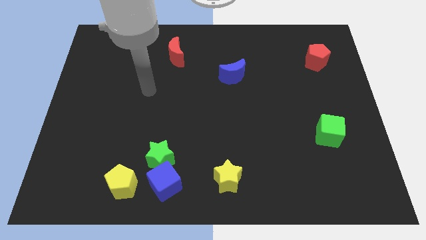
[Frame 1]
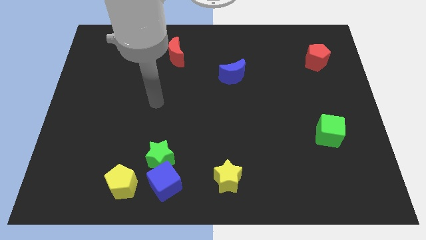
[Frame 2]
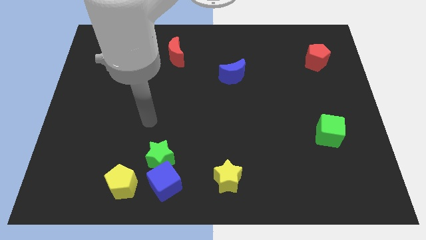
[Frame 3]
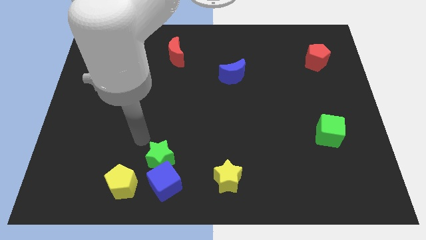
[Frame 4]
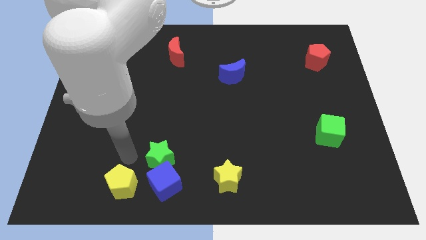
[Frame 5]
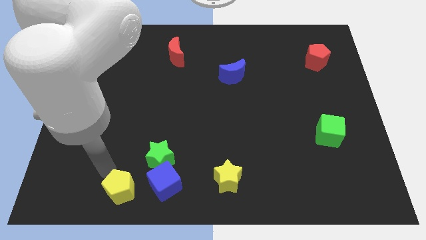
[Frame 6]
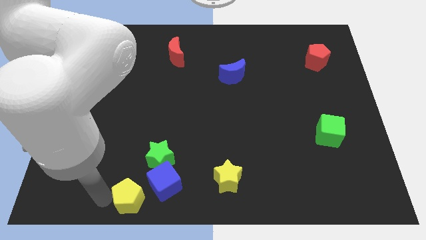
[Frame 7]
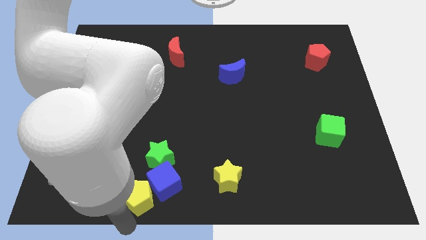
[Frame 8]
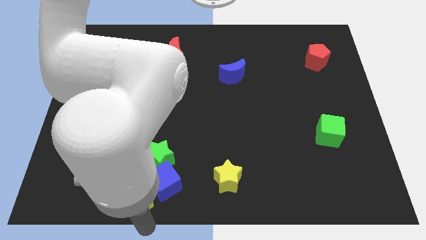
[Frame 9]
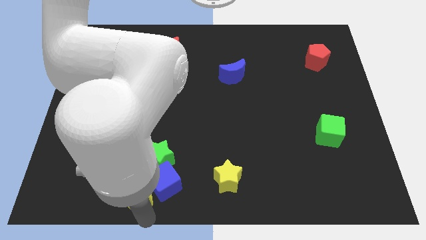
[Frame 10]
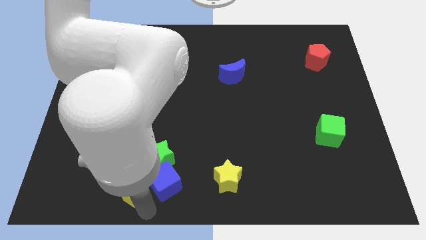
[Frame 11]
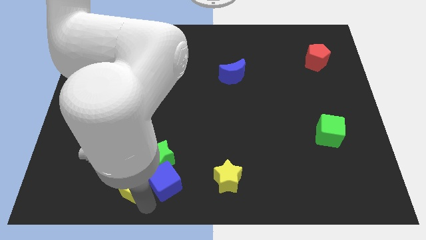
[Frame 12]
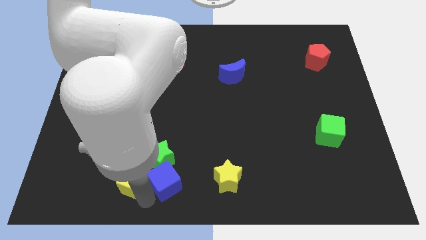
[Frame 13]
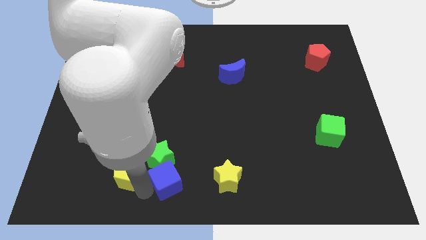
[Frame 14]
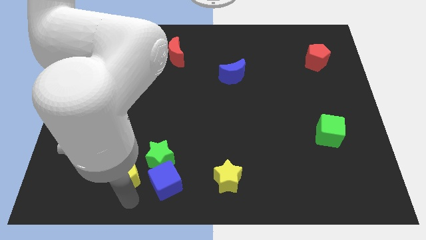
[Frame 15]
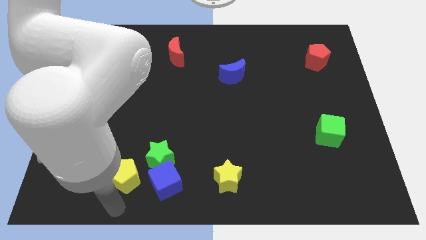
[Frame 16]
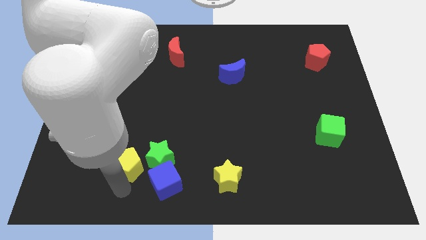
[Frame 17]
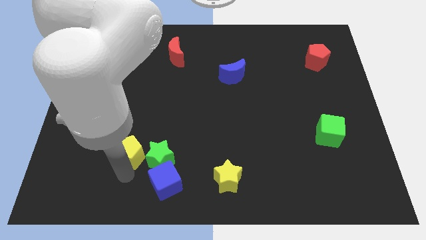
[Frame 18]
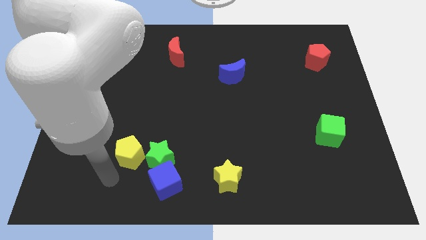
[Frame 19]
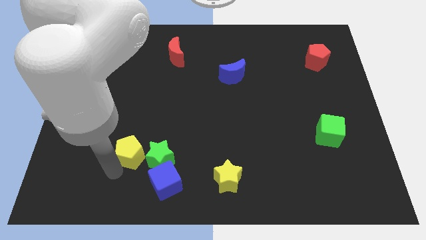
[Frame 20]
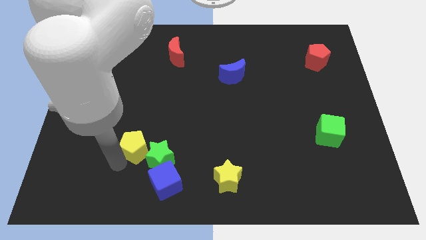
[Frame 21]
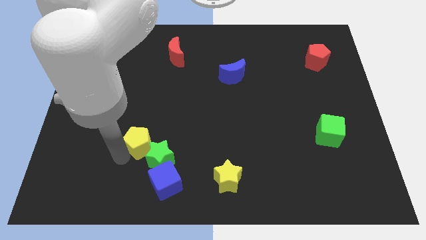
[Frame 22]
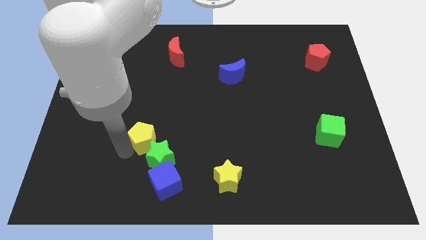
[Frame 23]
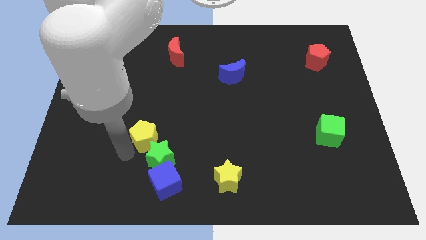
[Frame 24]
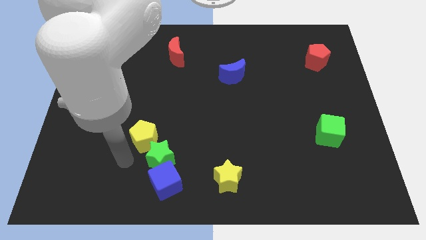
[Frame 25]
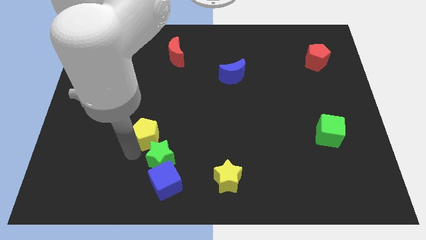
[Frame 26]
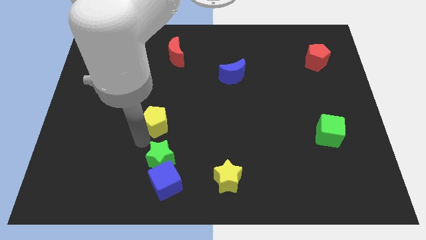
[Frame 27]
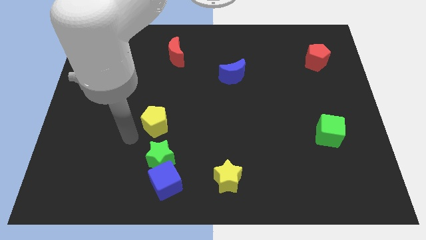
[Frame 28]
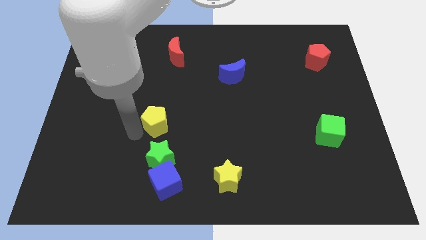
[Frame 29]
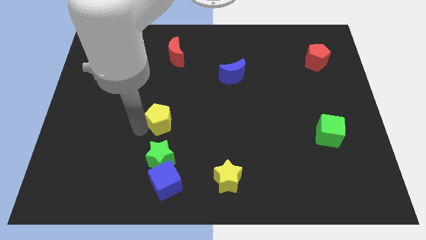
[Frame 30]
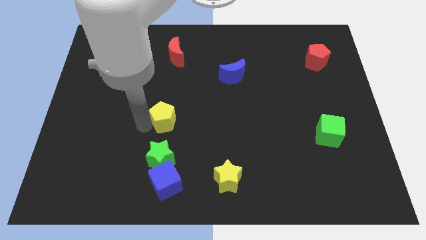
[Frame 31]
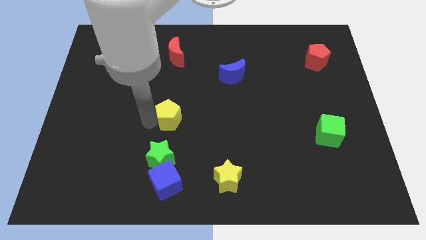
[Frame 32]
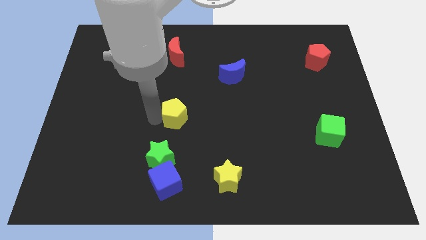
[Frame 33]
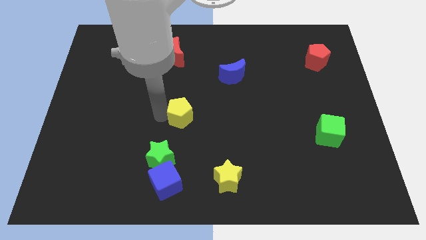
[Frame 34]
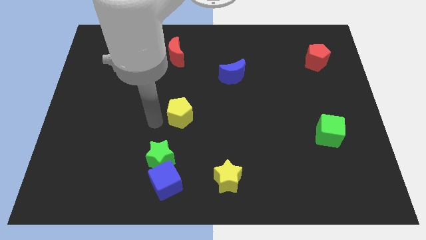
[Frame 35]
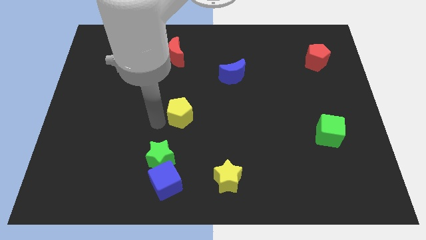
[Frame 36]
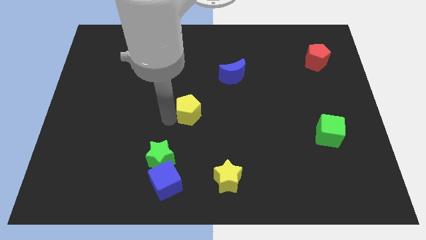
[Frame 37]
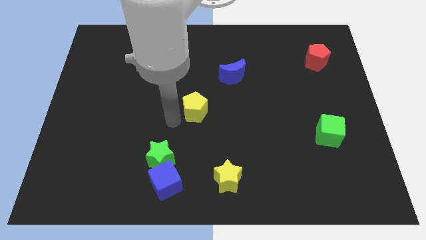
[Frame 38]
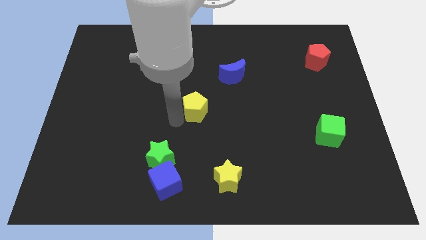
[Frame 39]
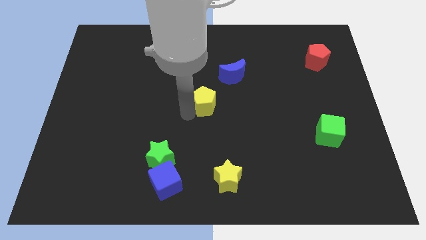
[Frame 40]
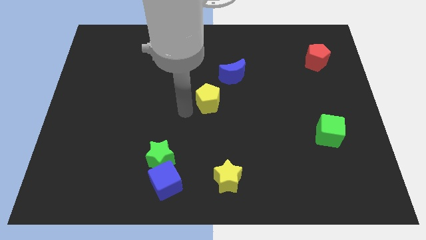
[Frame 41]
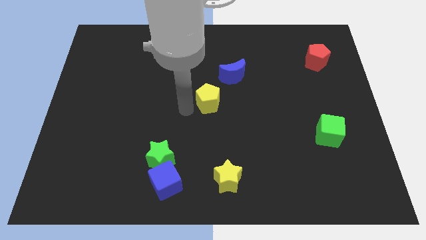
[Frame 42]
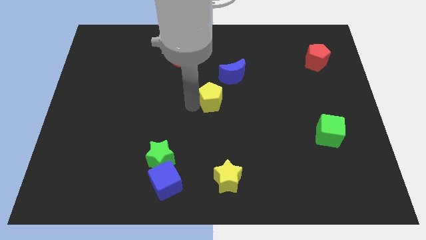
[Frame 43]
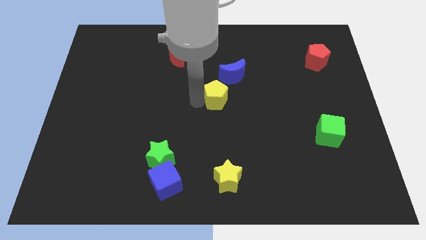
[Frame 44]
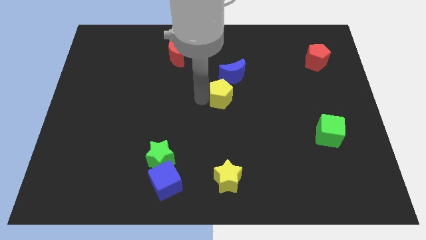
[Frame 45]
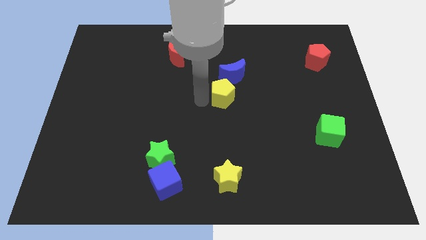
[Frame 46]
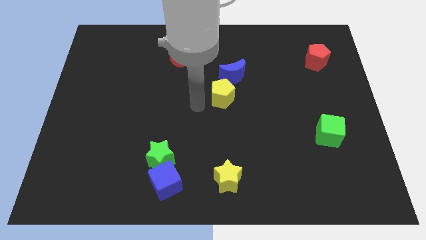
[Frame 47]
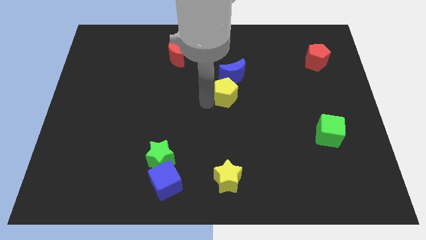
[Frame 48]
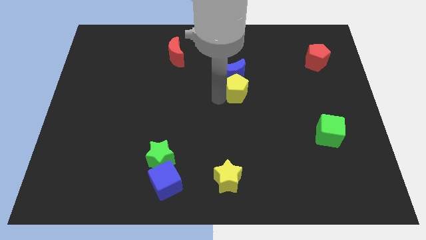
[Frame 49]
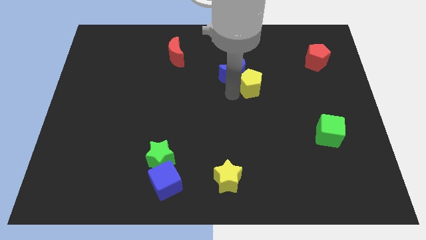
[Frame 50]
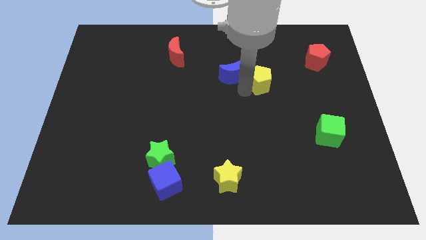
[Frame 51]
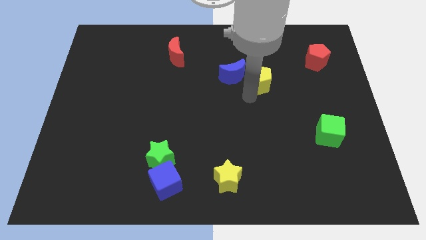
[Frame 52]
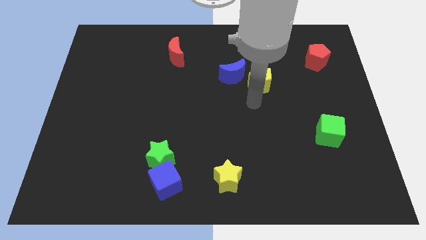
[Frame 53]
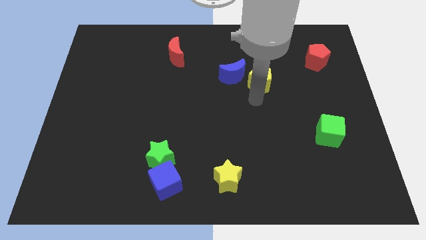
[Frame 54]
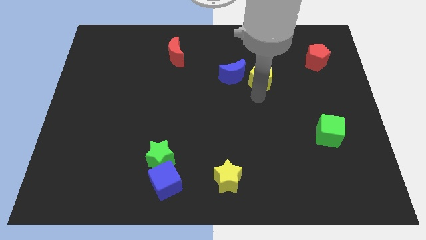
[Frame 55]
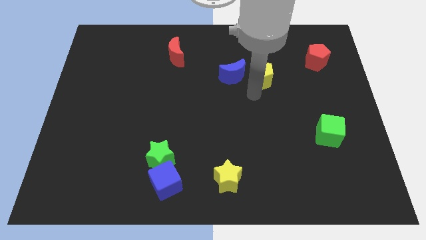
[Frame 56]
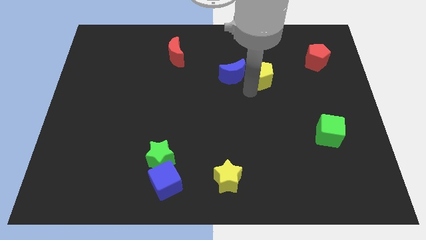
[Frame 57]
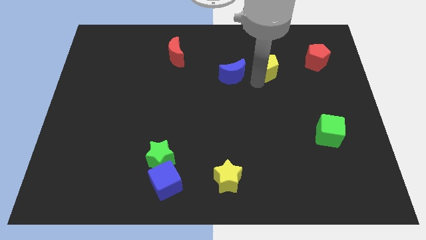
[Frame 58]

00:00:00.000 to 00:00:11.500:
slide the yellow pentagon just left of the red pentagon

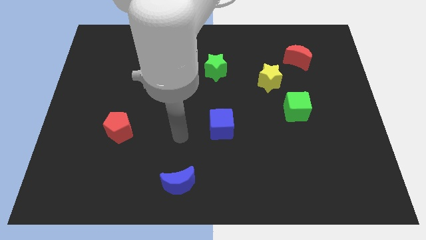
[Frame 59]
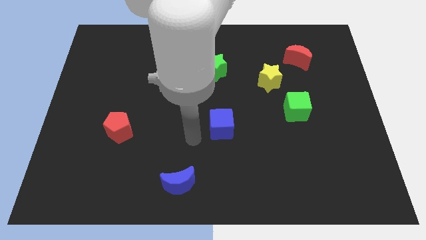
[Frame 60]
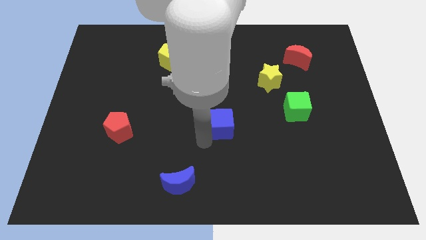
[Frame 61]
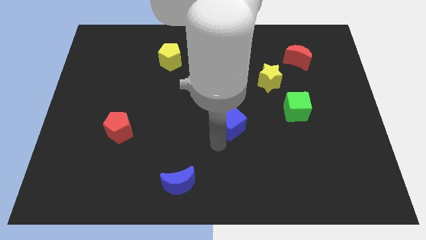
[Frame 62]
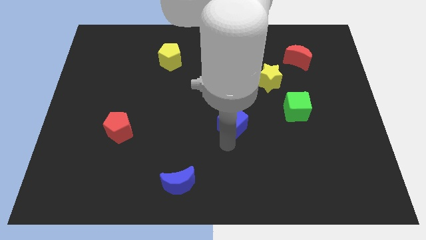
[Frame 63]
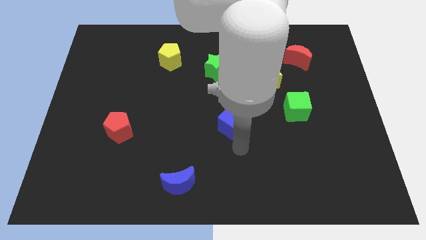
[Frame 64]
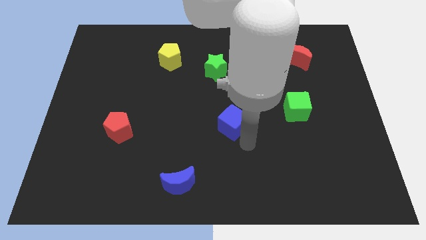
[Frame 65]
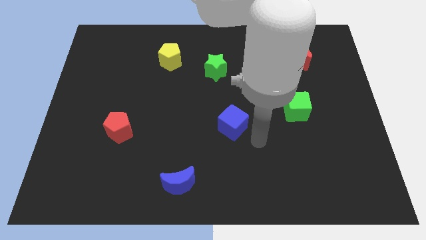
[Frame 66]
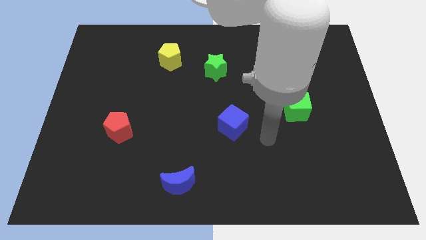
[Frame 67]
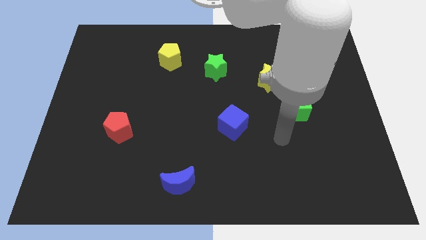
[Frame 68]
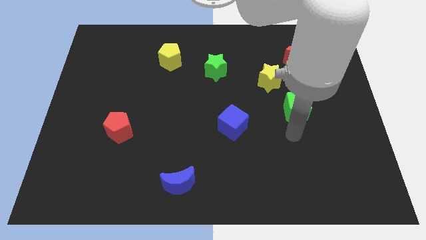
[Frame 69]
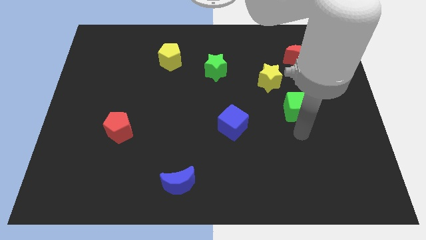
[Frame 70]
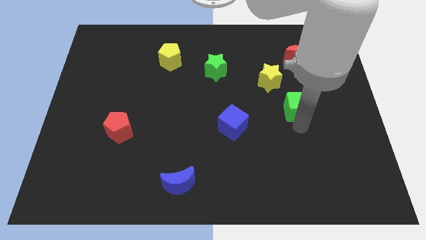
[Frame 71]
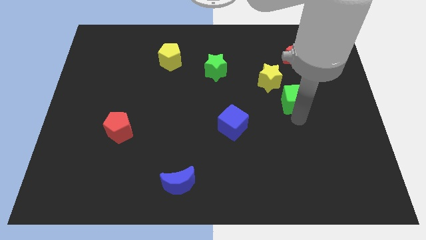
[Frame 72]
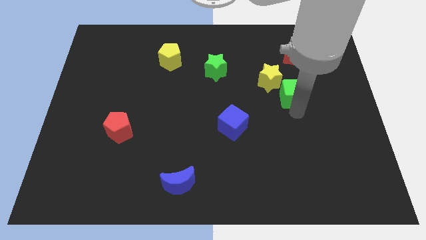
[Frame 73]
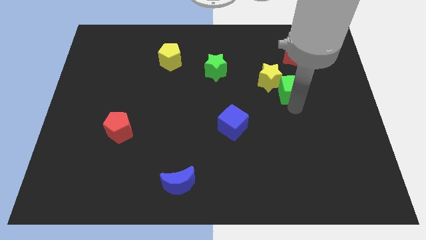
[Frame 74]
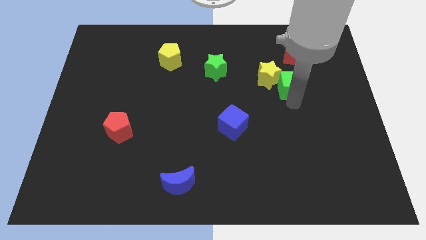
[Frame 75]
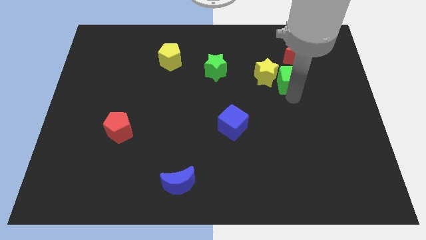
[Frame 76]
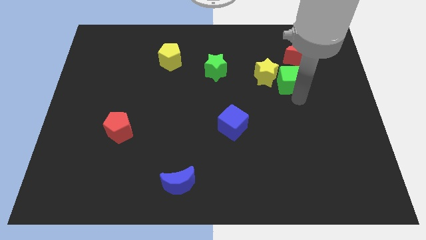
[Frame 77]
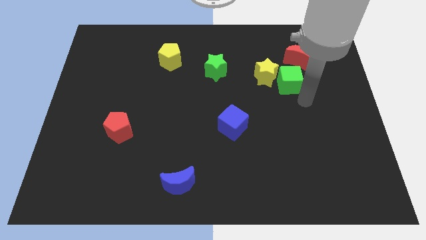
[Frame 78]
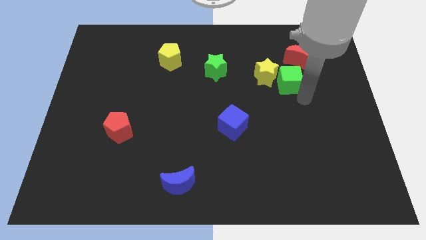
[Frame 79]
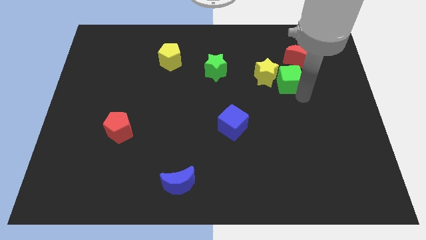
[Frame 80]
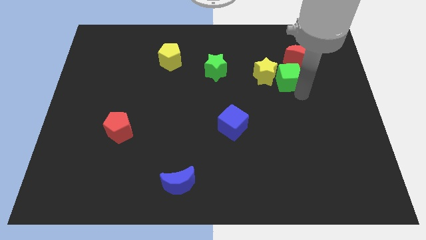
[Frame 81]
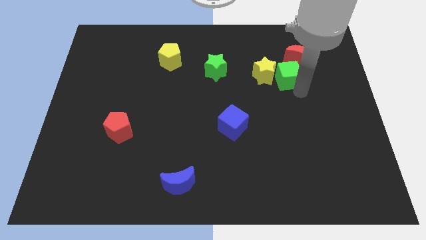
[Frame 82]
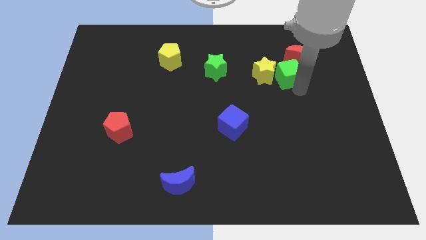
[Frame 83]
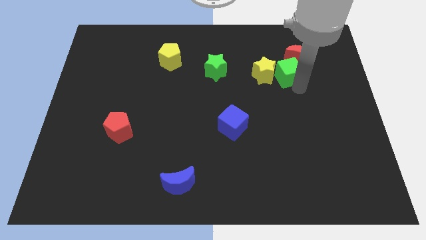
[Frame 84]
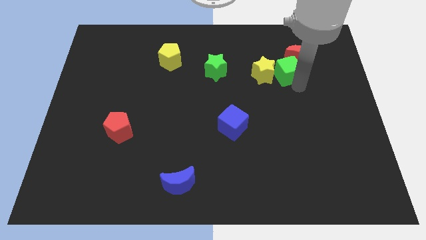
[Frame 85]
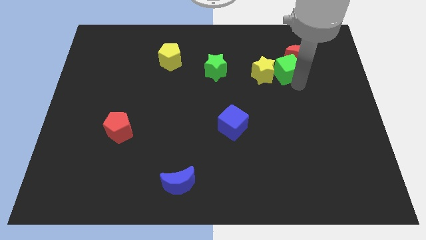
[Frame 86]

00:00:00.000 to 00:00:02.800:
slide the green cube to the left of the red moon
